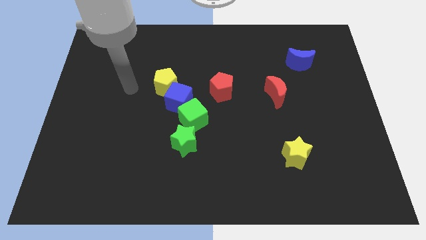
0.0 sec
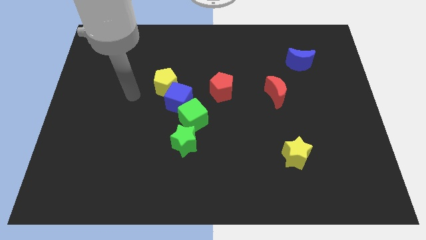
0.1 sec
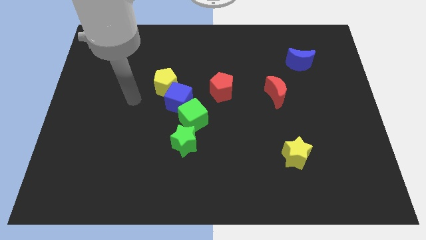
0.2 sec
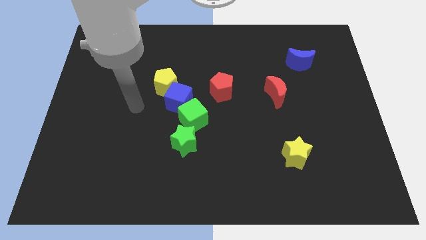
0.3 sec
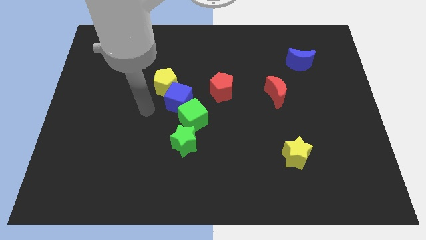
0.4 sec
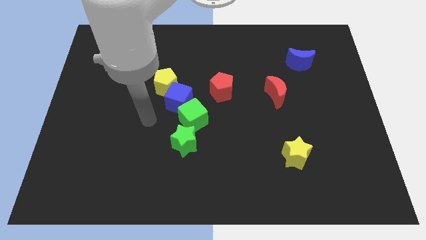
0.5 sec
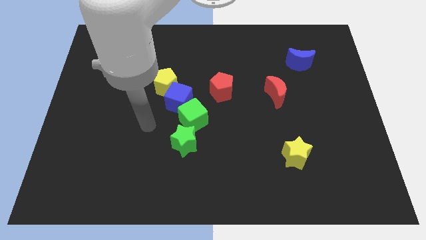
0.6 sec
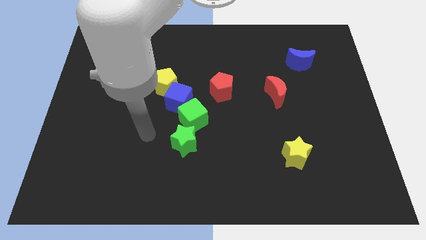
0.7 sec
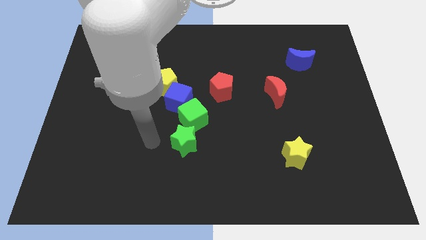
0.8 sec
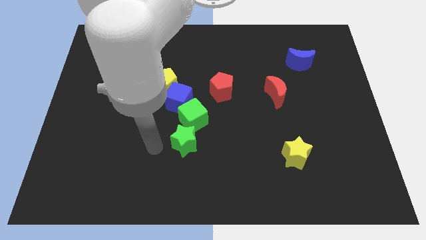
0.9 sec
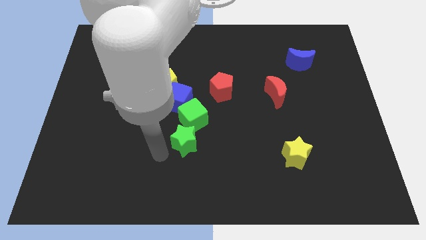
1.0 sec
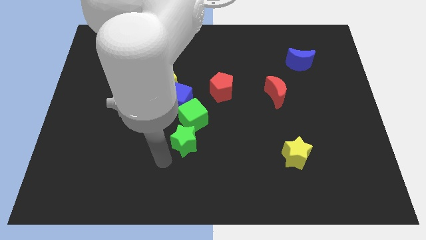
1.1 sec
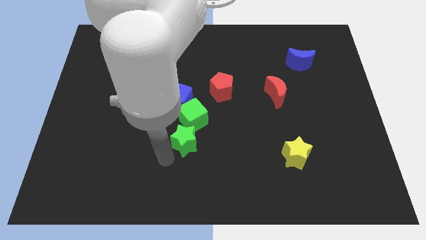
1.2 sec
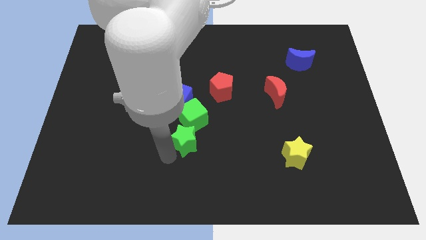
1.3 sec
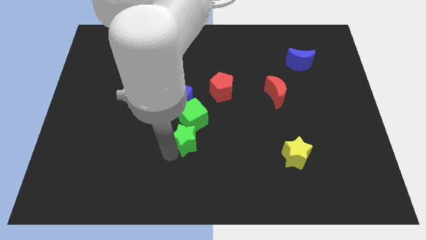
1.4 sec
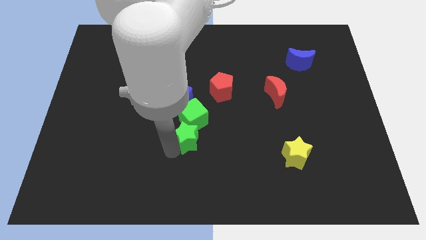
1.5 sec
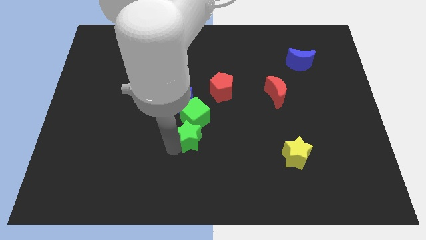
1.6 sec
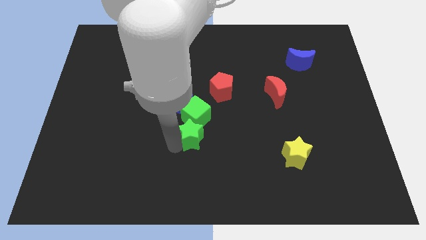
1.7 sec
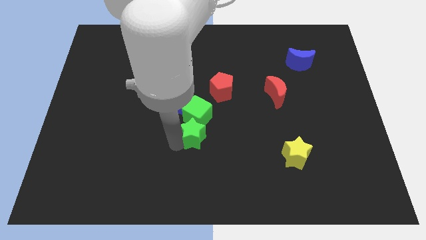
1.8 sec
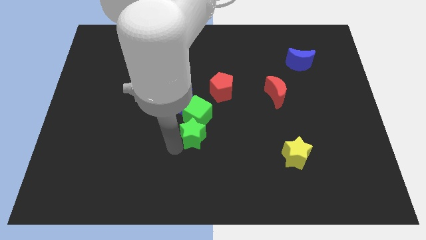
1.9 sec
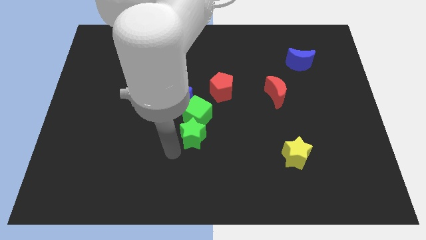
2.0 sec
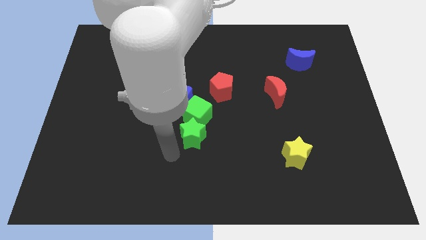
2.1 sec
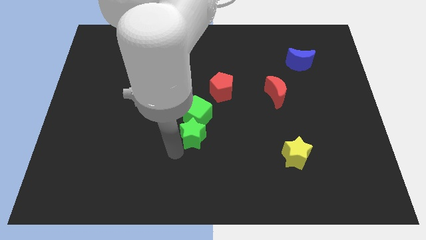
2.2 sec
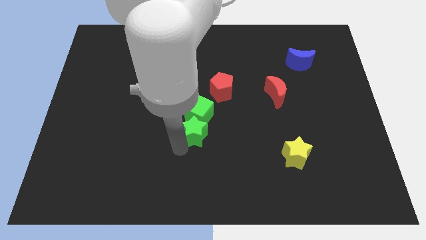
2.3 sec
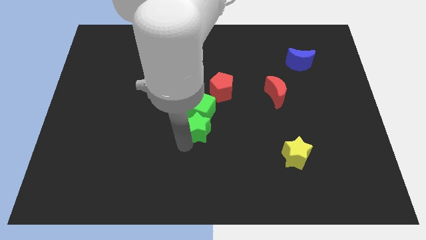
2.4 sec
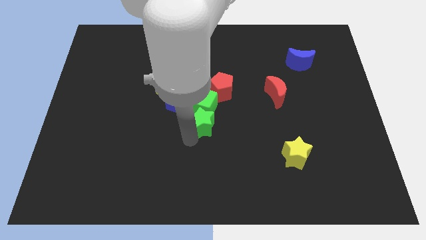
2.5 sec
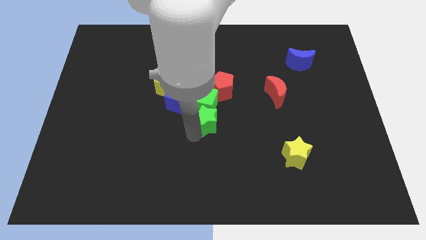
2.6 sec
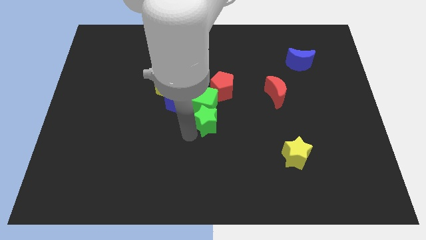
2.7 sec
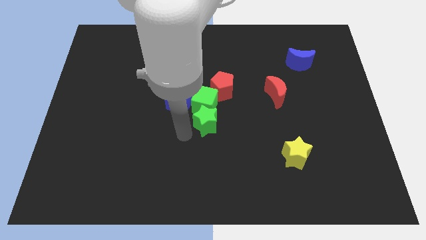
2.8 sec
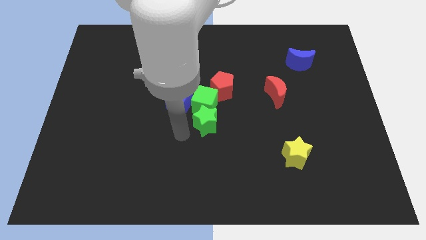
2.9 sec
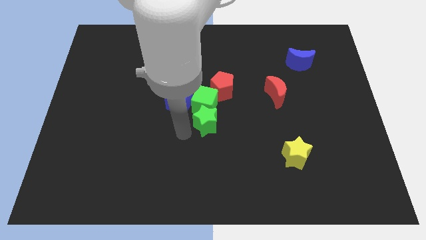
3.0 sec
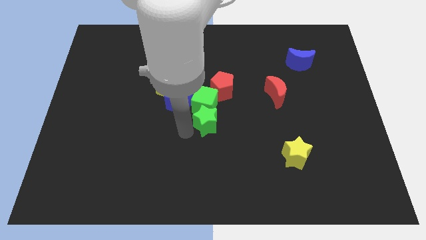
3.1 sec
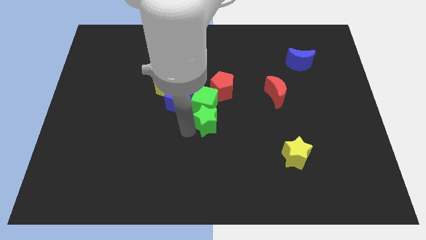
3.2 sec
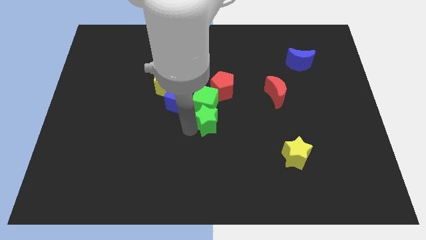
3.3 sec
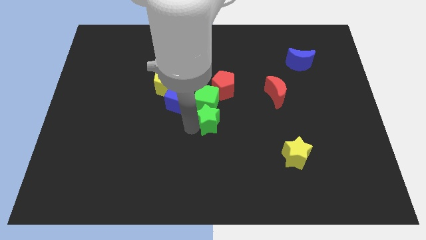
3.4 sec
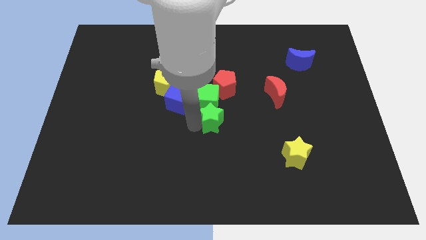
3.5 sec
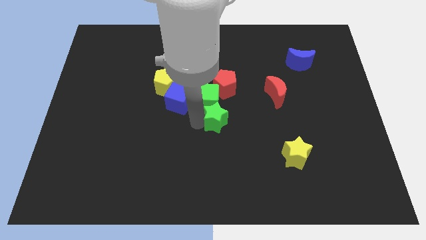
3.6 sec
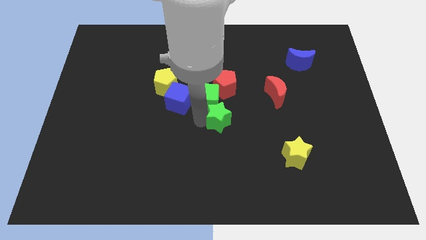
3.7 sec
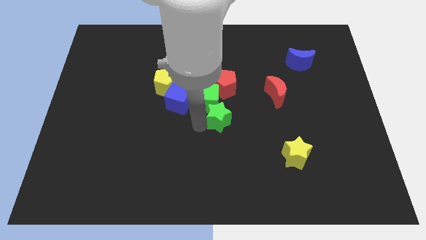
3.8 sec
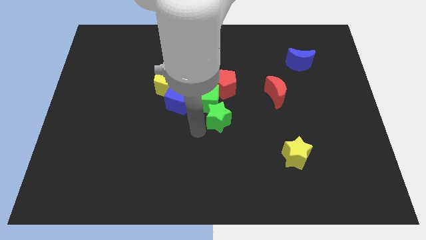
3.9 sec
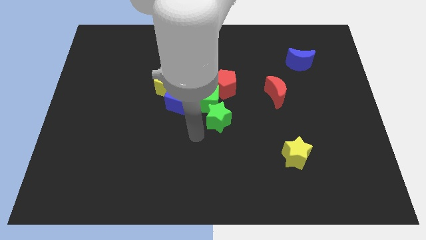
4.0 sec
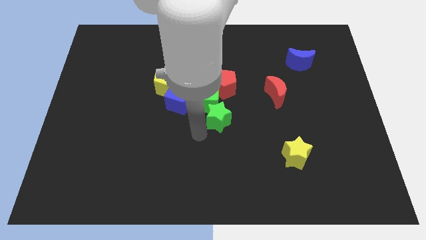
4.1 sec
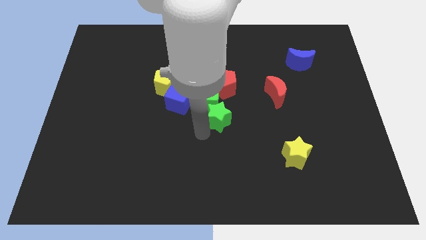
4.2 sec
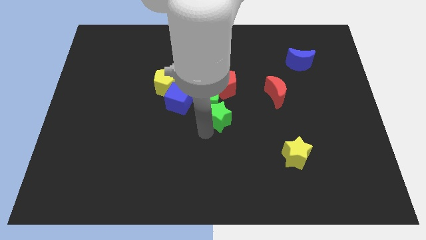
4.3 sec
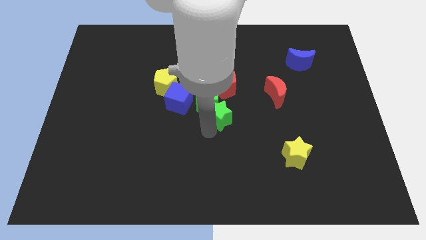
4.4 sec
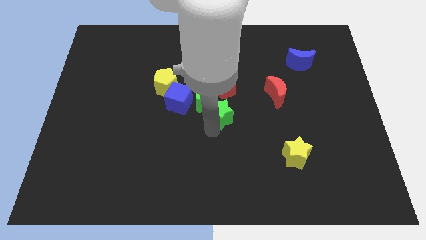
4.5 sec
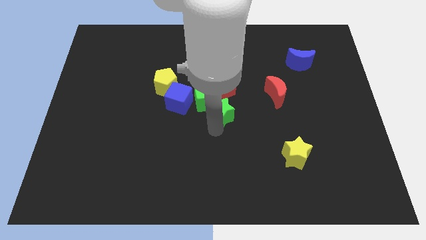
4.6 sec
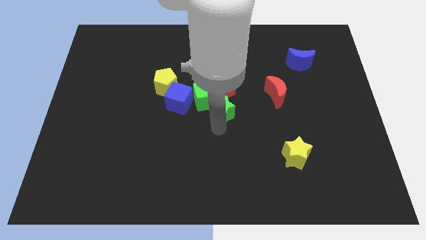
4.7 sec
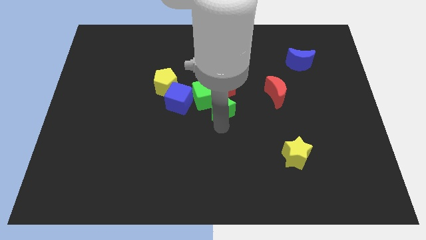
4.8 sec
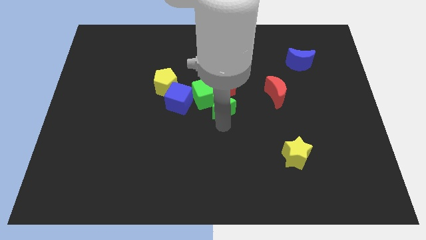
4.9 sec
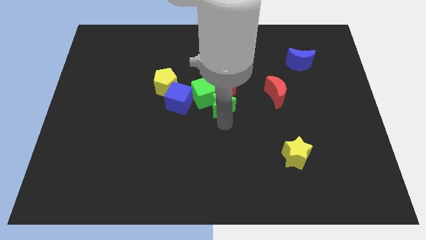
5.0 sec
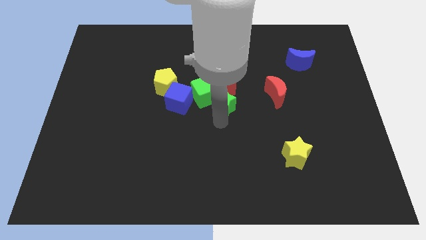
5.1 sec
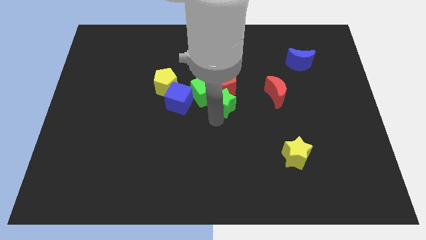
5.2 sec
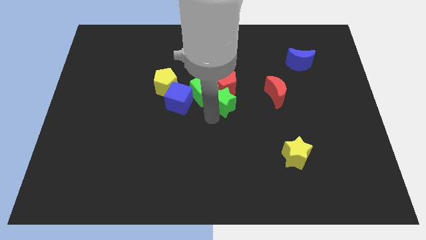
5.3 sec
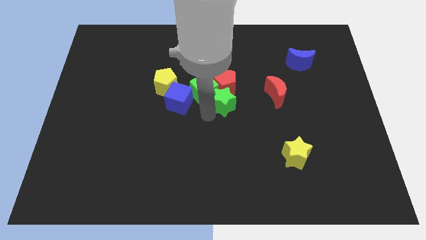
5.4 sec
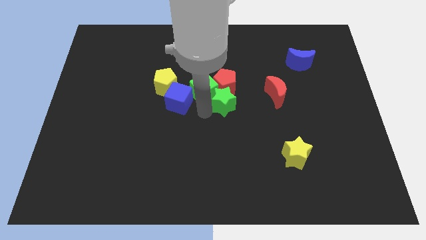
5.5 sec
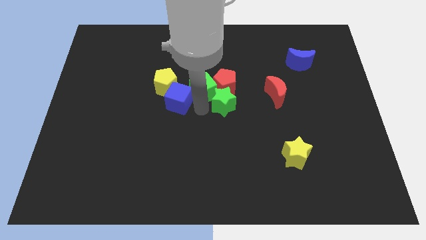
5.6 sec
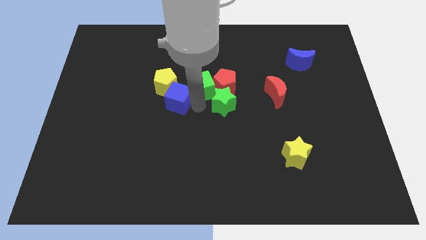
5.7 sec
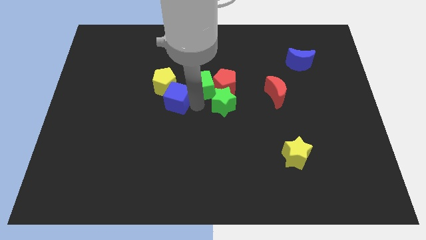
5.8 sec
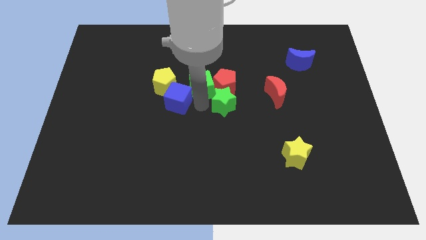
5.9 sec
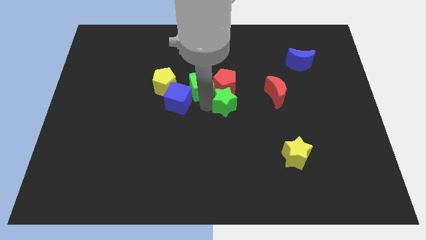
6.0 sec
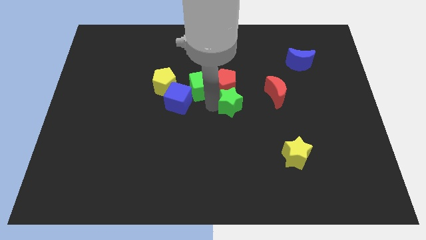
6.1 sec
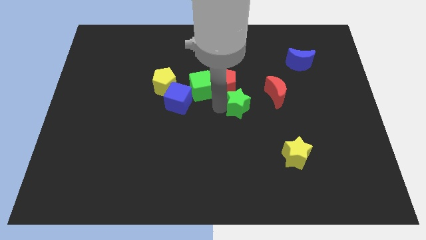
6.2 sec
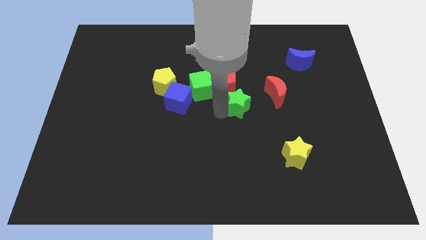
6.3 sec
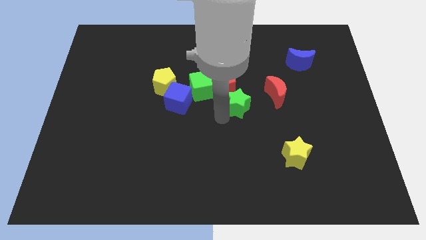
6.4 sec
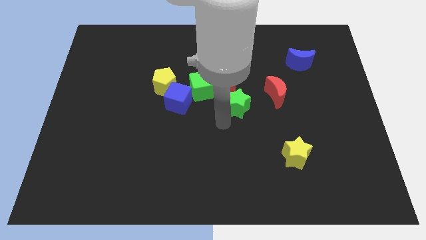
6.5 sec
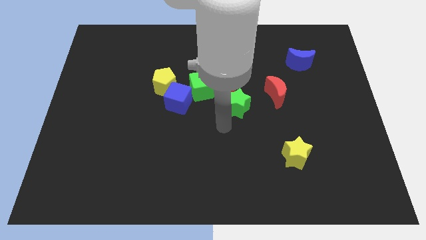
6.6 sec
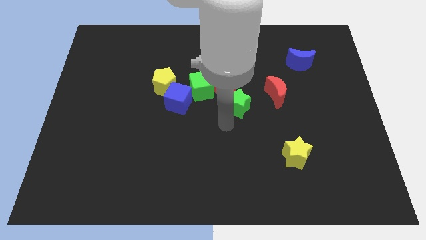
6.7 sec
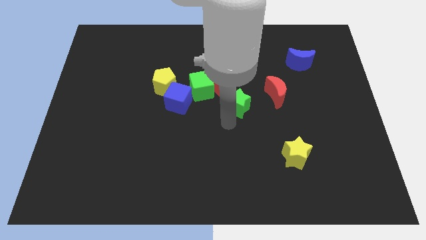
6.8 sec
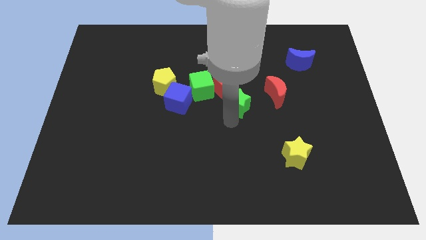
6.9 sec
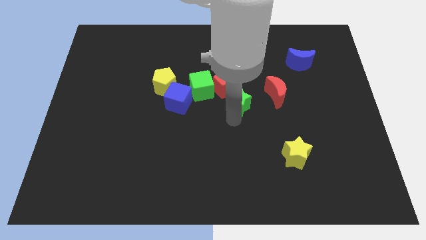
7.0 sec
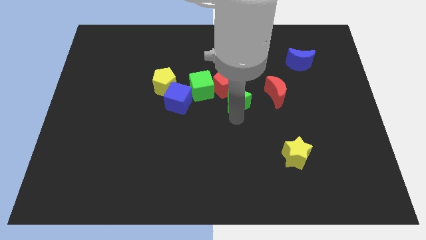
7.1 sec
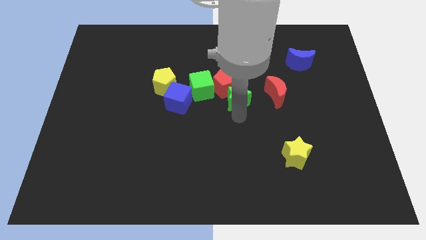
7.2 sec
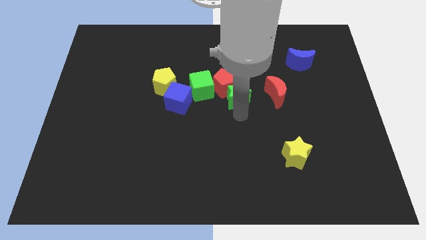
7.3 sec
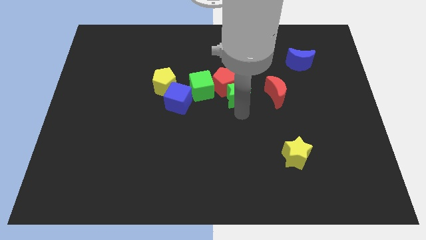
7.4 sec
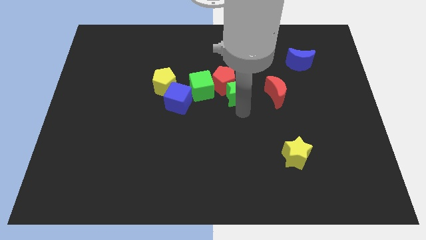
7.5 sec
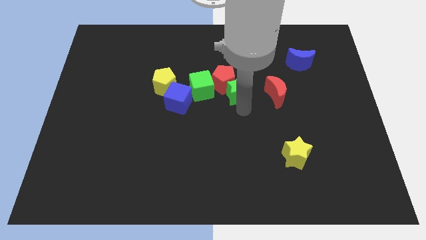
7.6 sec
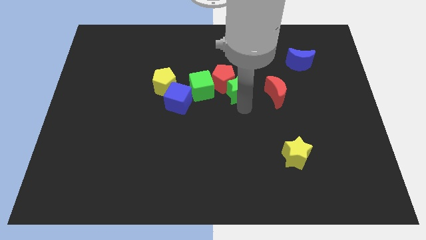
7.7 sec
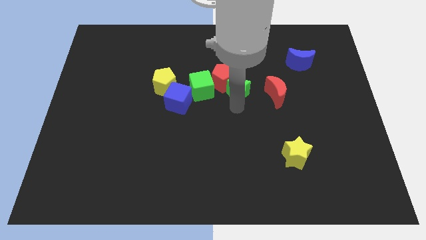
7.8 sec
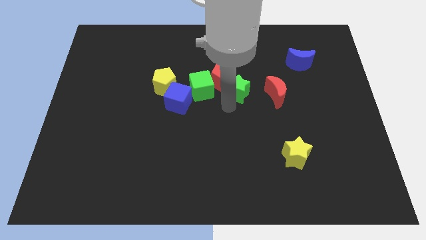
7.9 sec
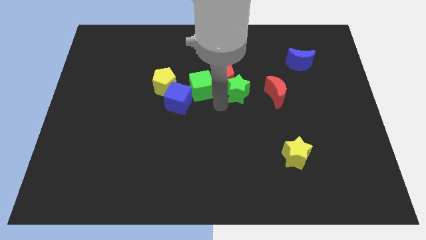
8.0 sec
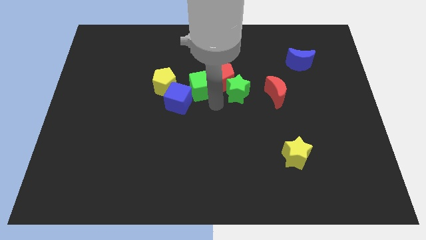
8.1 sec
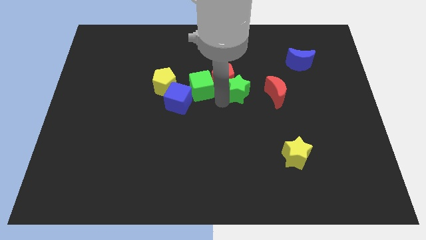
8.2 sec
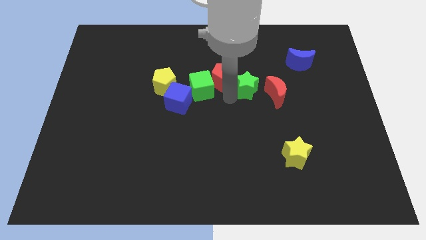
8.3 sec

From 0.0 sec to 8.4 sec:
move the green star upwards and right

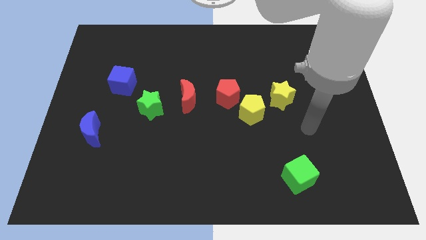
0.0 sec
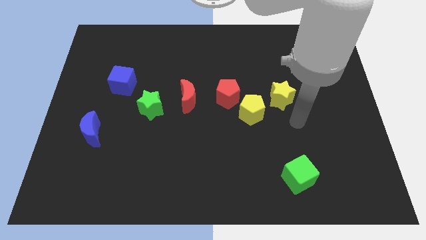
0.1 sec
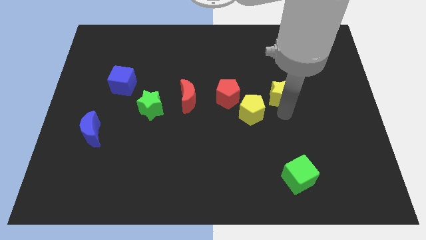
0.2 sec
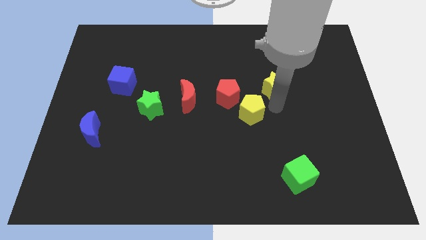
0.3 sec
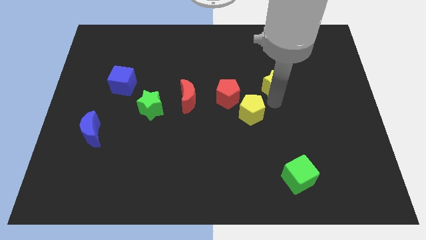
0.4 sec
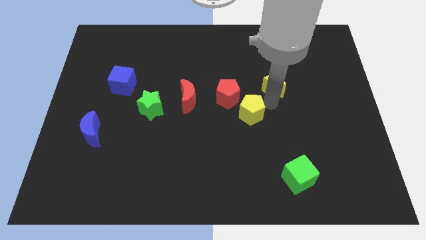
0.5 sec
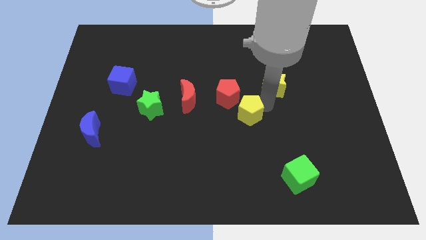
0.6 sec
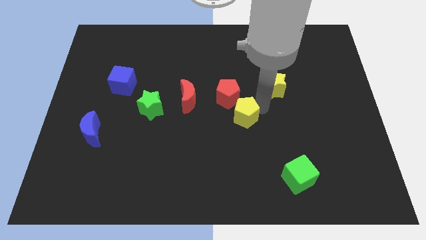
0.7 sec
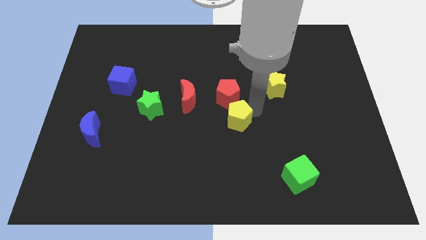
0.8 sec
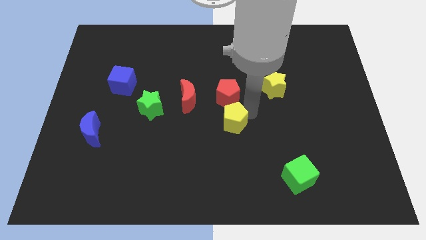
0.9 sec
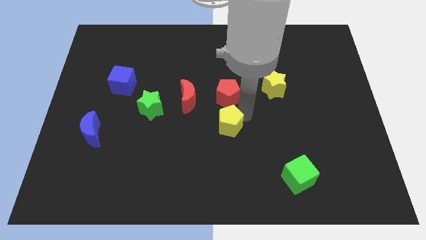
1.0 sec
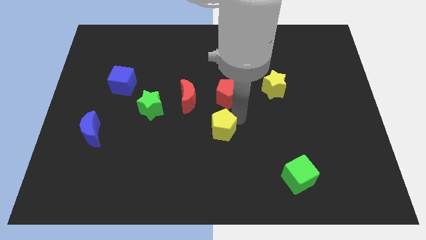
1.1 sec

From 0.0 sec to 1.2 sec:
slide the yellow pentagon diagonally down and to the left a little
